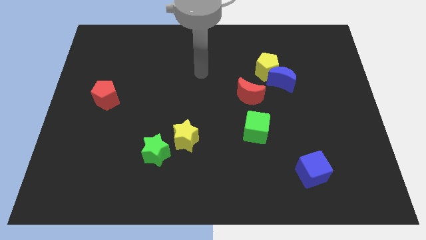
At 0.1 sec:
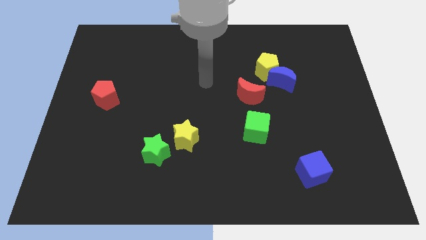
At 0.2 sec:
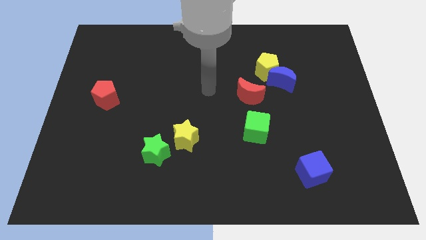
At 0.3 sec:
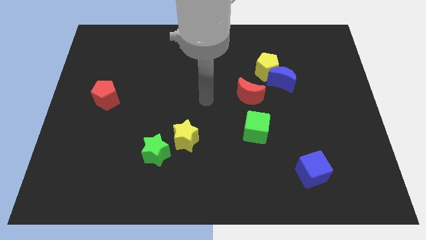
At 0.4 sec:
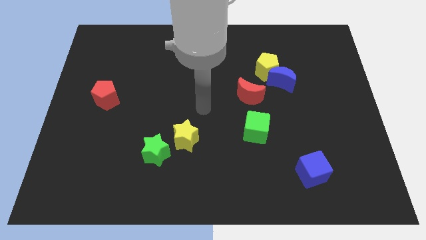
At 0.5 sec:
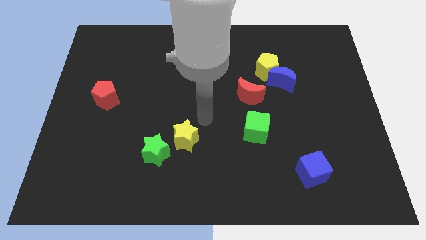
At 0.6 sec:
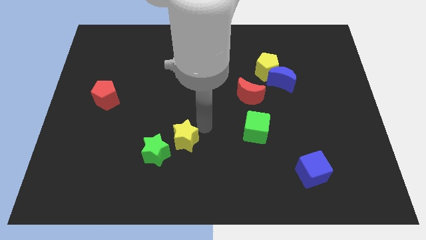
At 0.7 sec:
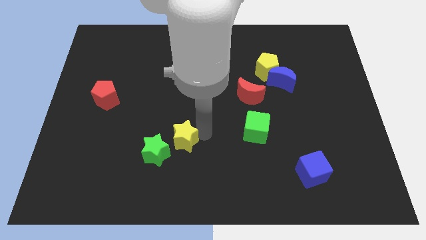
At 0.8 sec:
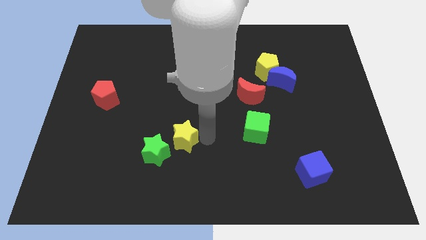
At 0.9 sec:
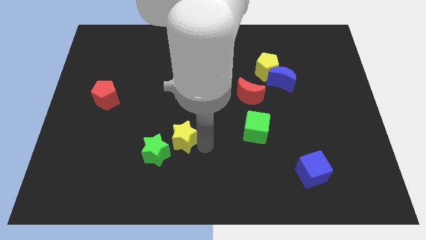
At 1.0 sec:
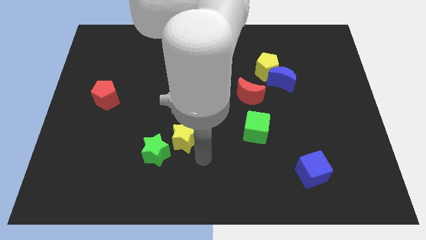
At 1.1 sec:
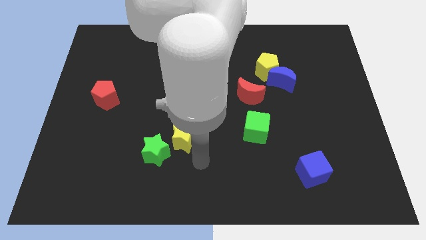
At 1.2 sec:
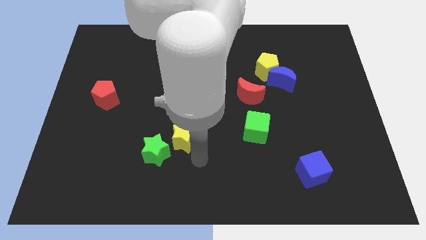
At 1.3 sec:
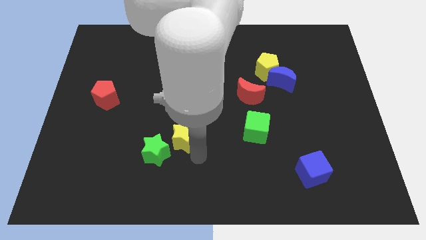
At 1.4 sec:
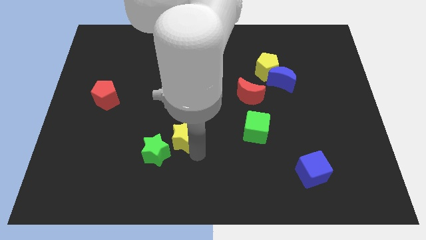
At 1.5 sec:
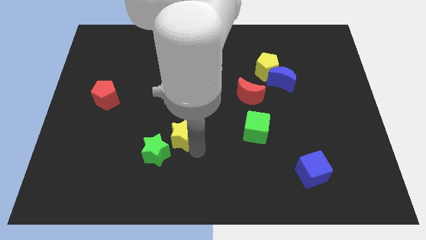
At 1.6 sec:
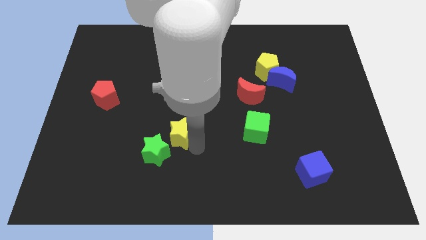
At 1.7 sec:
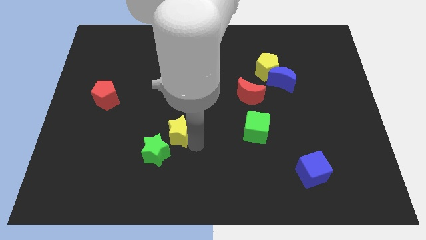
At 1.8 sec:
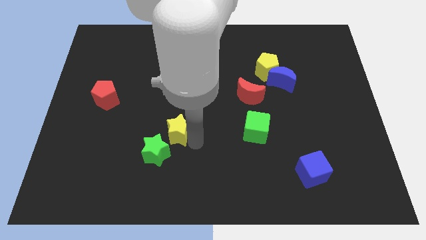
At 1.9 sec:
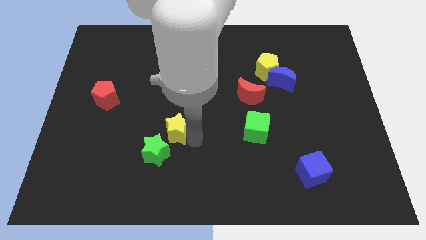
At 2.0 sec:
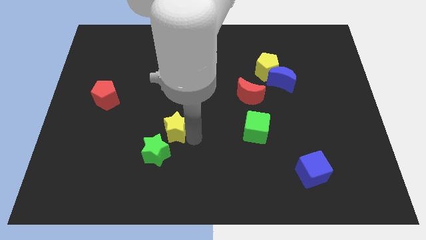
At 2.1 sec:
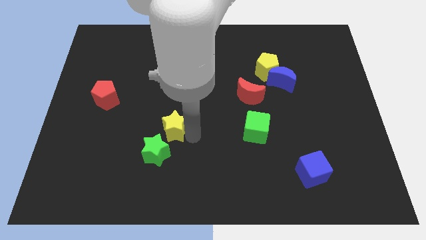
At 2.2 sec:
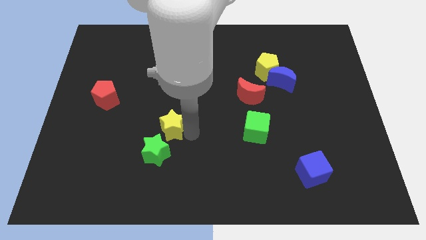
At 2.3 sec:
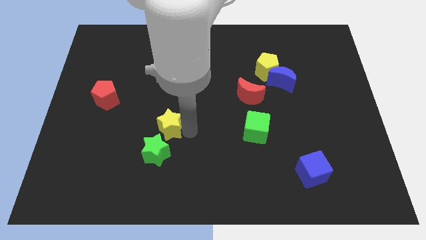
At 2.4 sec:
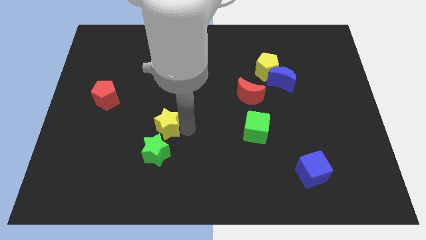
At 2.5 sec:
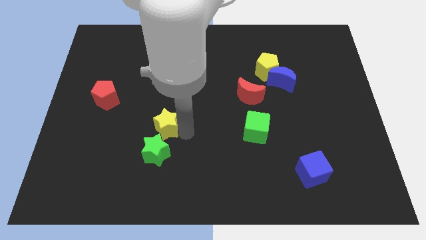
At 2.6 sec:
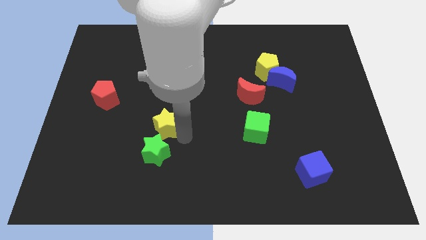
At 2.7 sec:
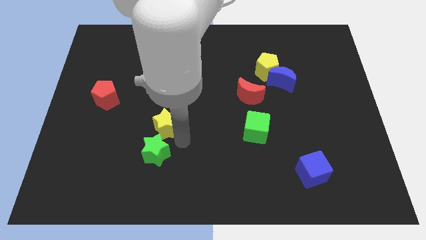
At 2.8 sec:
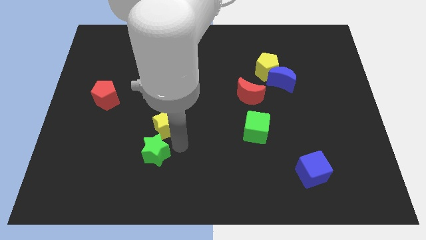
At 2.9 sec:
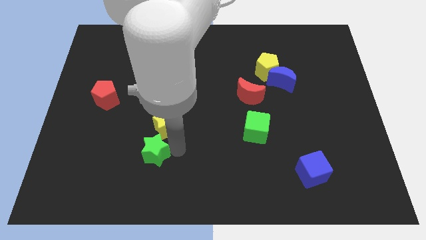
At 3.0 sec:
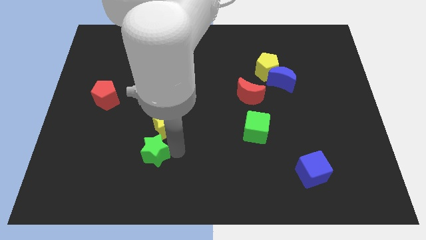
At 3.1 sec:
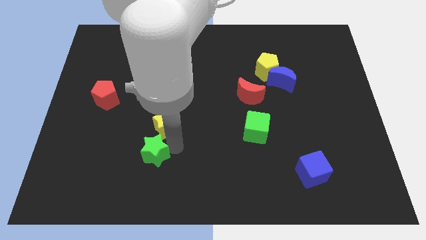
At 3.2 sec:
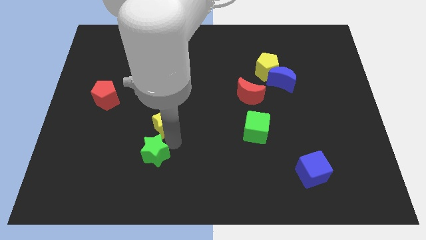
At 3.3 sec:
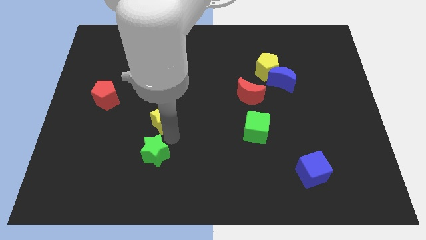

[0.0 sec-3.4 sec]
move the yellow star a little up and left

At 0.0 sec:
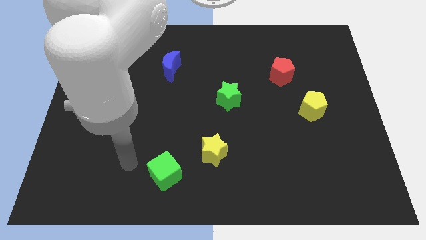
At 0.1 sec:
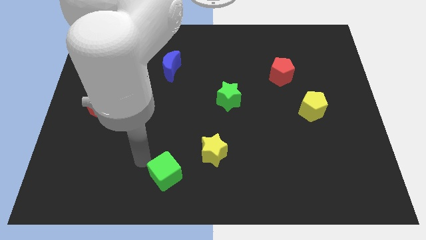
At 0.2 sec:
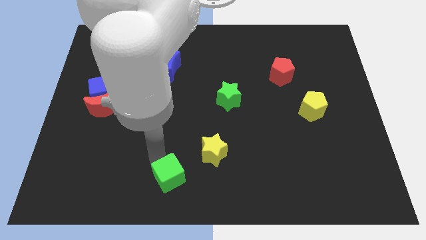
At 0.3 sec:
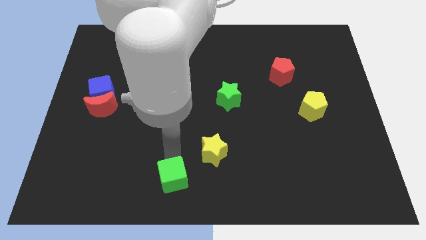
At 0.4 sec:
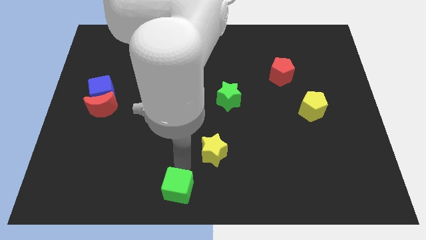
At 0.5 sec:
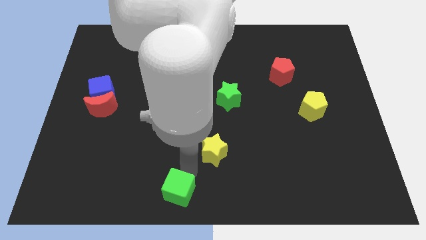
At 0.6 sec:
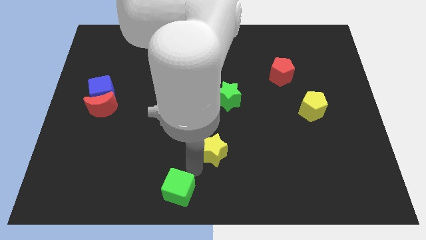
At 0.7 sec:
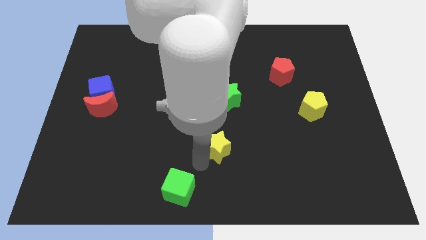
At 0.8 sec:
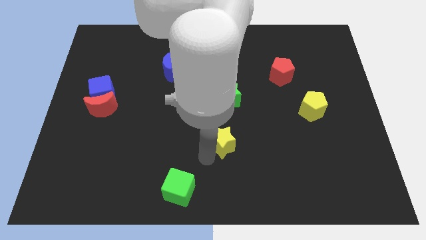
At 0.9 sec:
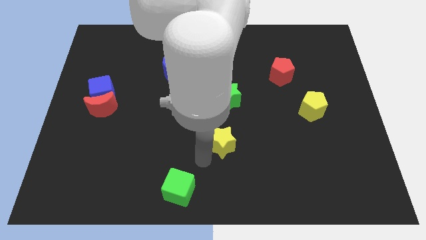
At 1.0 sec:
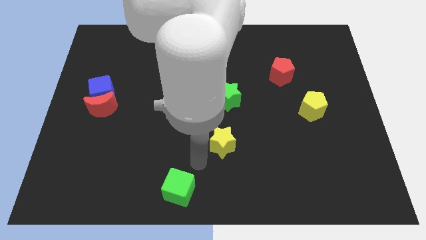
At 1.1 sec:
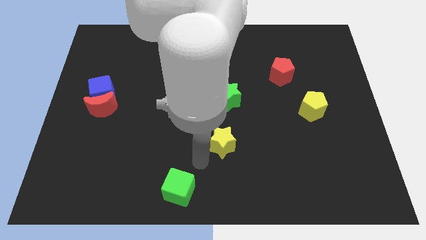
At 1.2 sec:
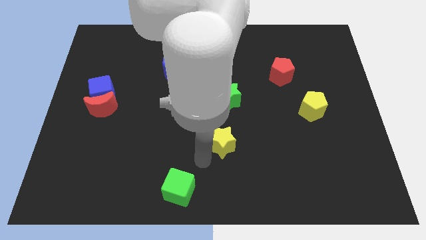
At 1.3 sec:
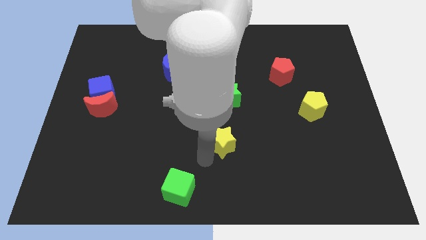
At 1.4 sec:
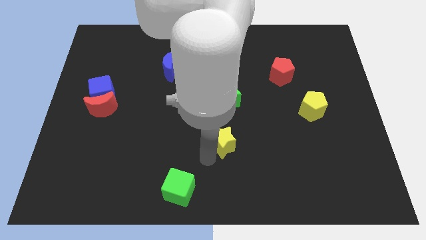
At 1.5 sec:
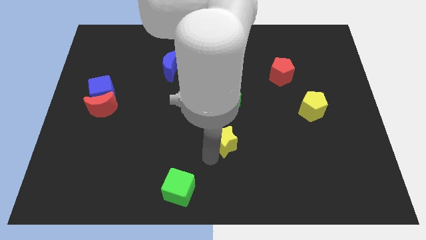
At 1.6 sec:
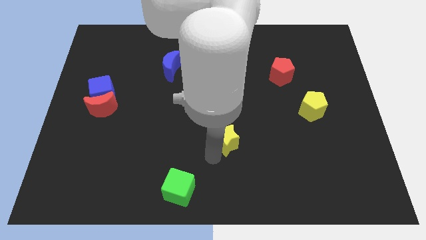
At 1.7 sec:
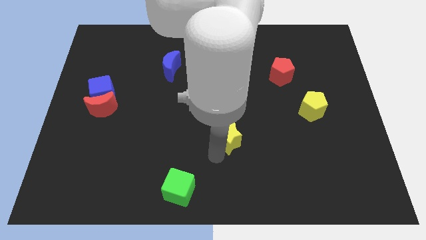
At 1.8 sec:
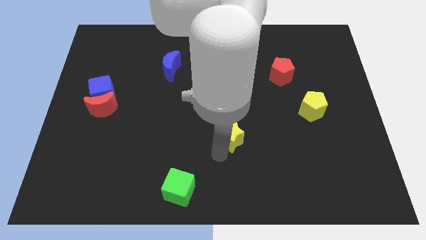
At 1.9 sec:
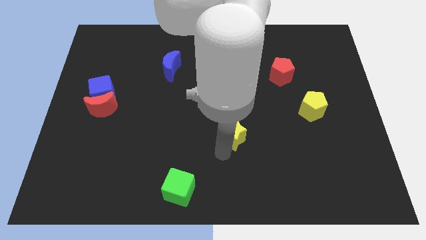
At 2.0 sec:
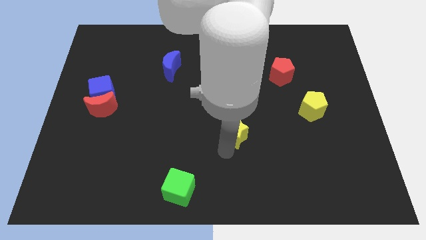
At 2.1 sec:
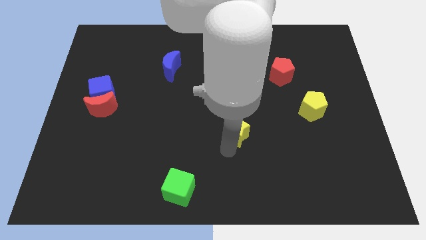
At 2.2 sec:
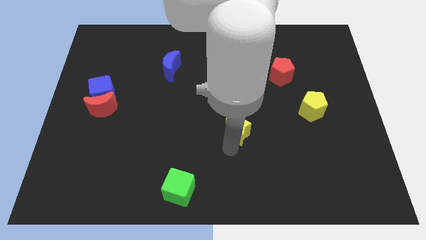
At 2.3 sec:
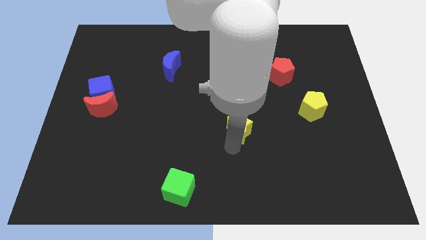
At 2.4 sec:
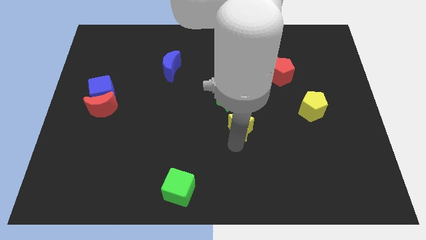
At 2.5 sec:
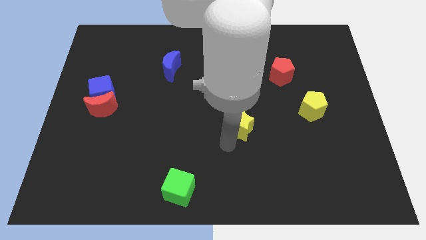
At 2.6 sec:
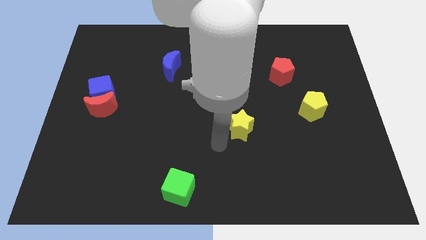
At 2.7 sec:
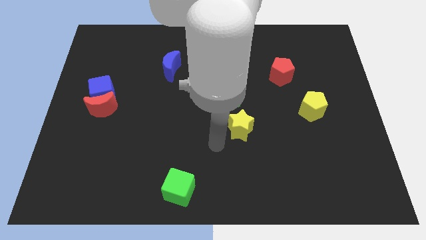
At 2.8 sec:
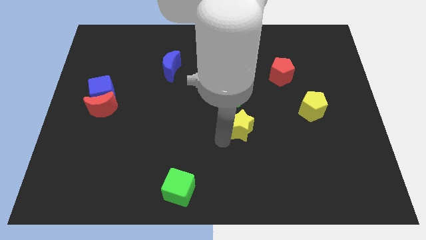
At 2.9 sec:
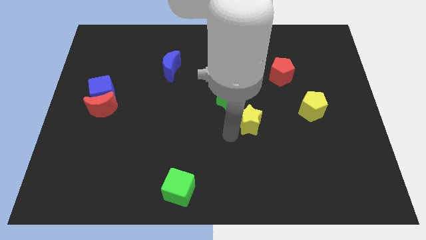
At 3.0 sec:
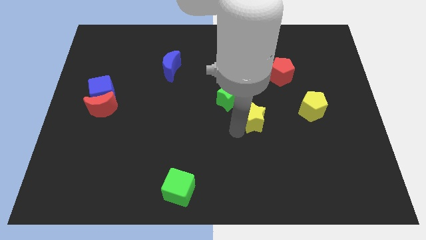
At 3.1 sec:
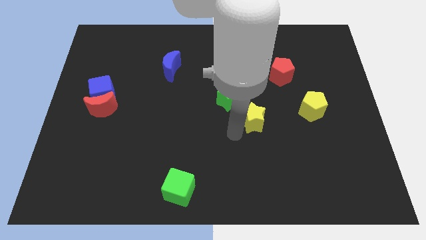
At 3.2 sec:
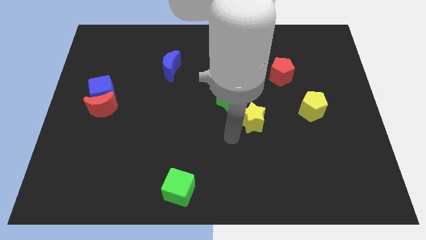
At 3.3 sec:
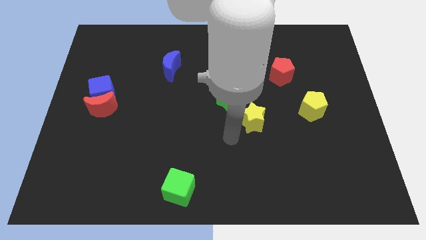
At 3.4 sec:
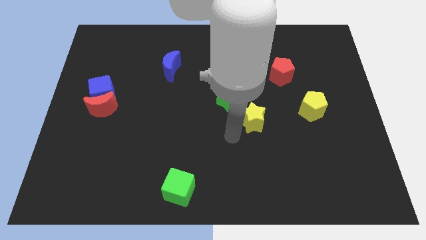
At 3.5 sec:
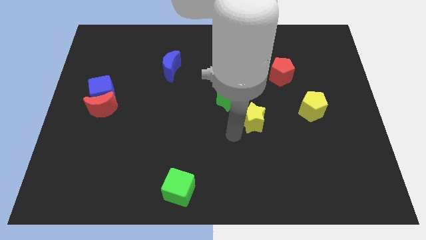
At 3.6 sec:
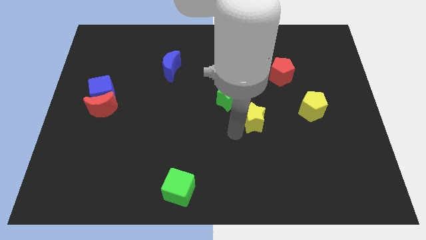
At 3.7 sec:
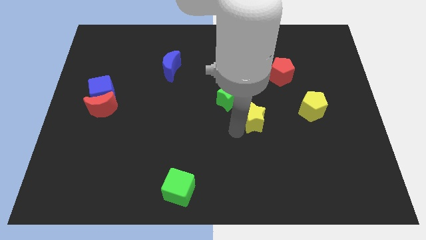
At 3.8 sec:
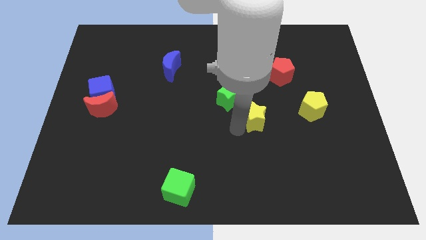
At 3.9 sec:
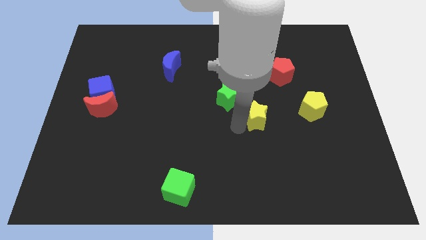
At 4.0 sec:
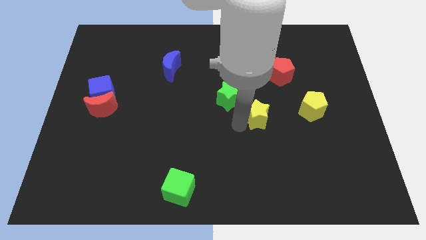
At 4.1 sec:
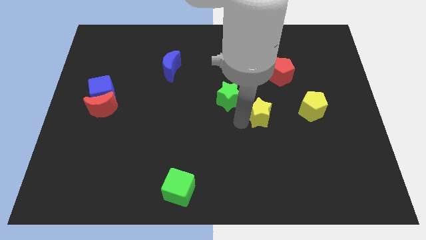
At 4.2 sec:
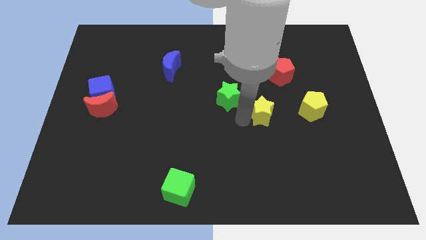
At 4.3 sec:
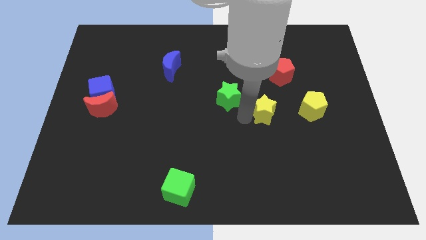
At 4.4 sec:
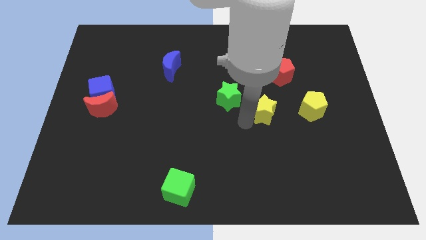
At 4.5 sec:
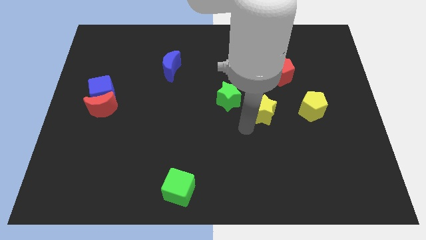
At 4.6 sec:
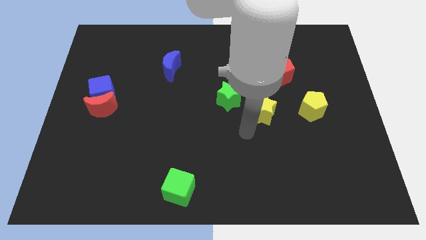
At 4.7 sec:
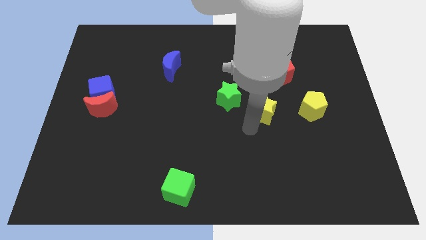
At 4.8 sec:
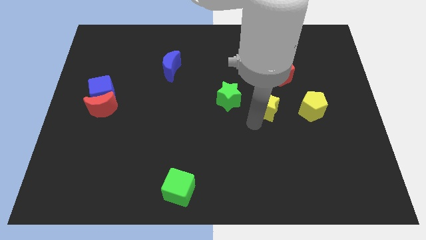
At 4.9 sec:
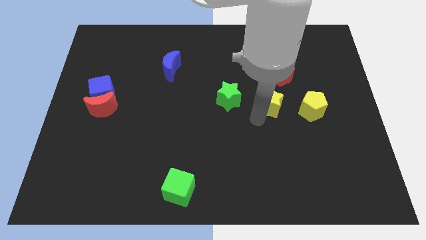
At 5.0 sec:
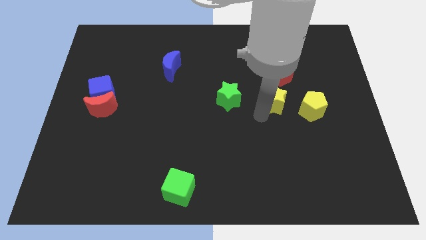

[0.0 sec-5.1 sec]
push the yellow star up and to the right diagonally

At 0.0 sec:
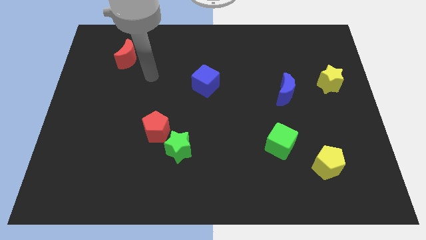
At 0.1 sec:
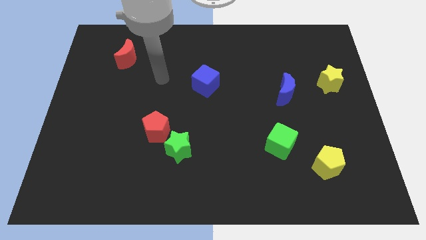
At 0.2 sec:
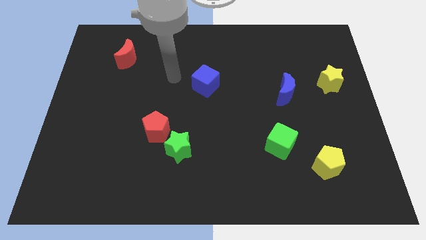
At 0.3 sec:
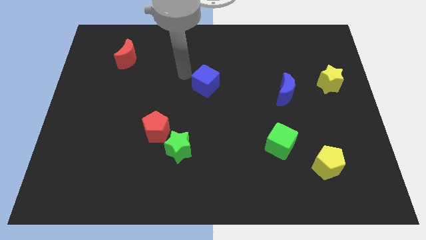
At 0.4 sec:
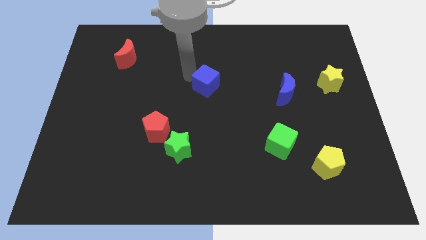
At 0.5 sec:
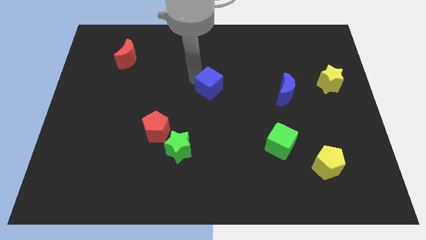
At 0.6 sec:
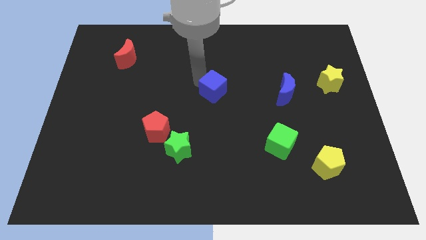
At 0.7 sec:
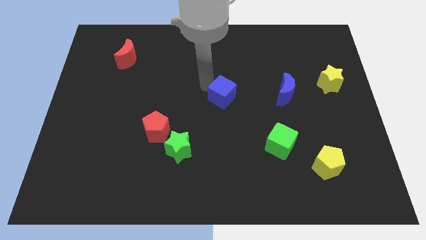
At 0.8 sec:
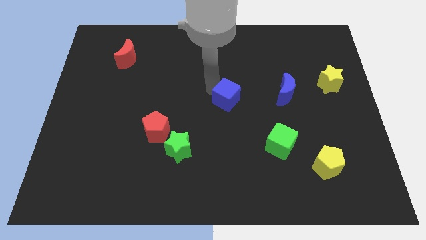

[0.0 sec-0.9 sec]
slightly move the blue cube downwards and to the right diagonally
